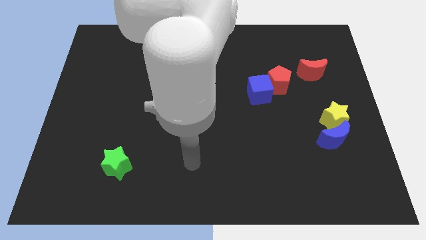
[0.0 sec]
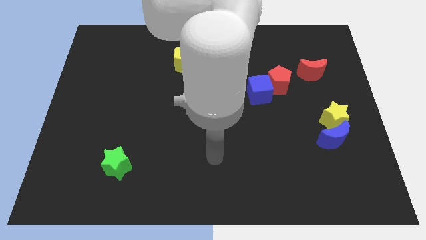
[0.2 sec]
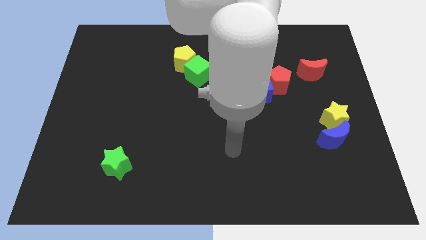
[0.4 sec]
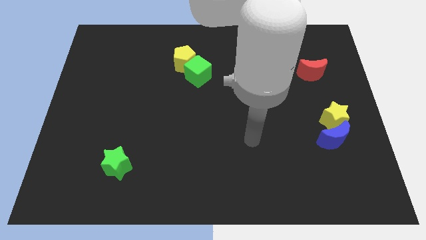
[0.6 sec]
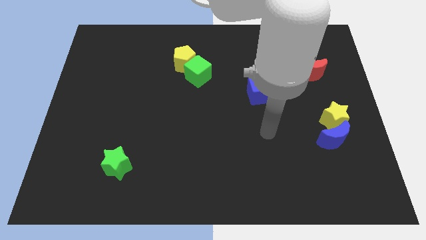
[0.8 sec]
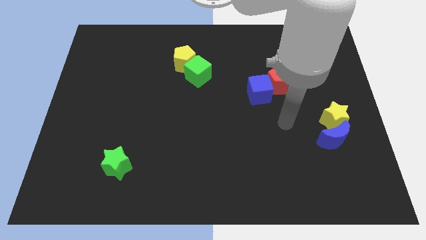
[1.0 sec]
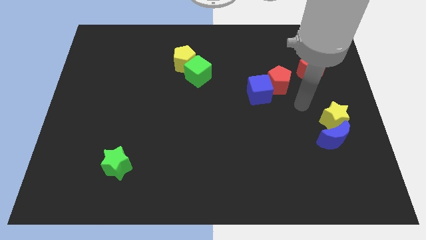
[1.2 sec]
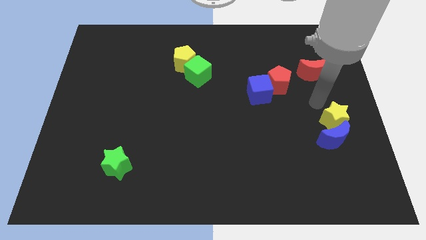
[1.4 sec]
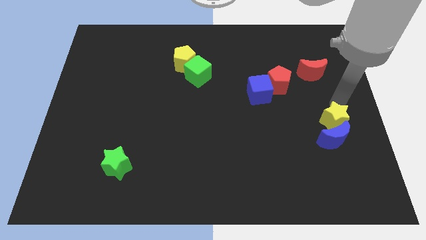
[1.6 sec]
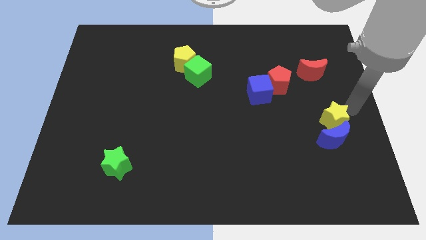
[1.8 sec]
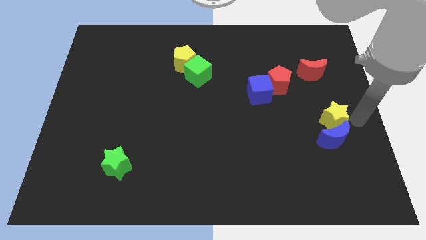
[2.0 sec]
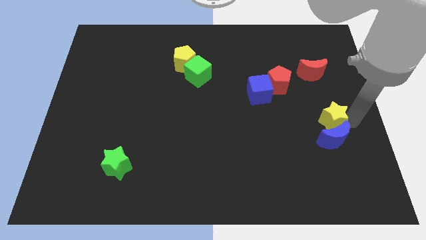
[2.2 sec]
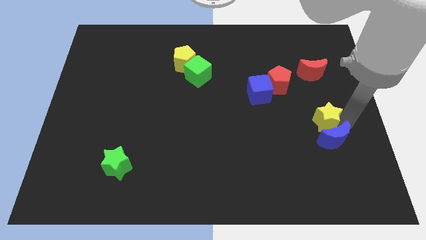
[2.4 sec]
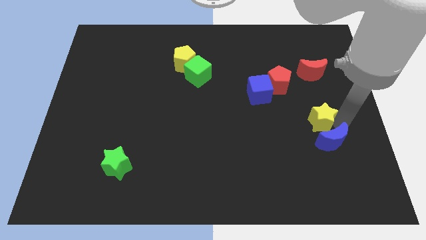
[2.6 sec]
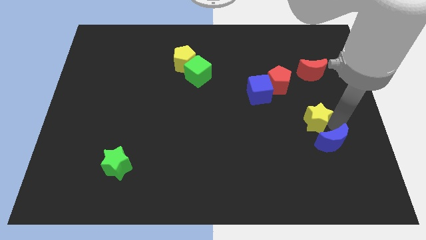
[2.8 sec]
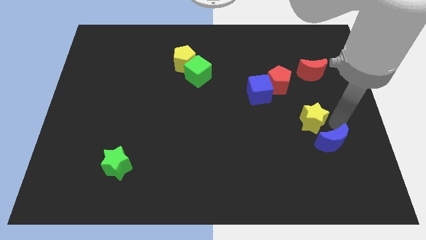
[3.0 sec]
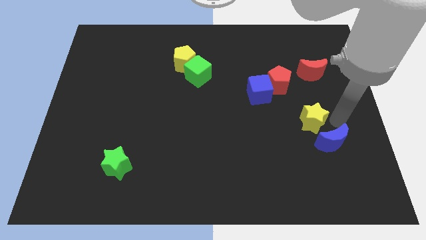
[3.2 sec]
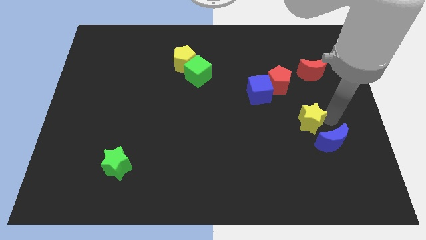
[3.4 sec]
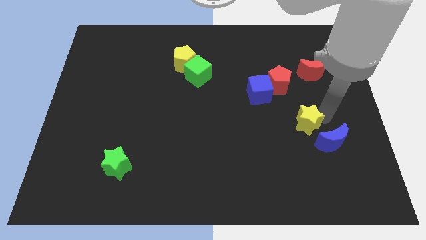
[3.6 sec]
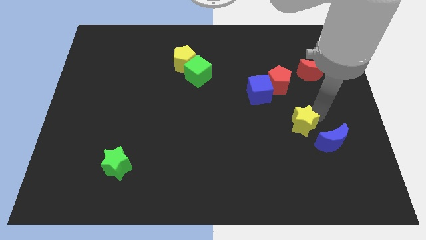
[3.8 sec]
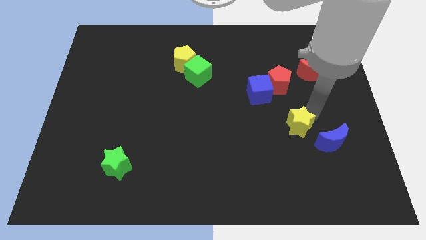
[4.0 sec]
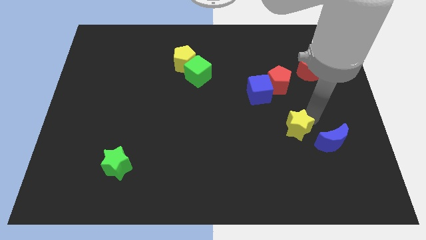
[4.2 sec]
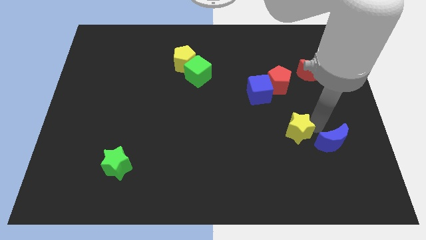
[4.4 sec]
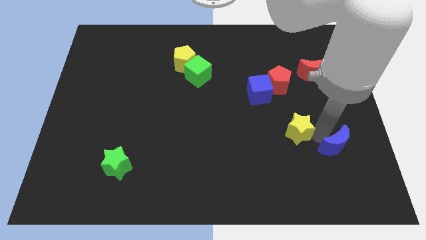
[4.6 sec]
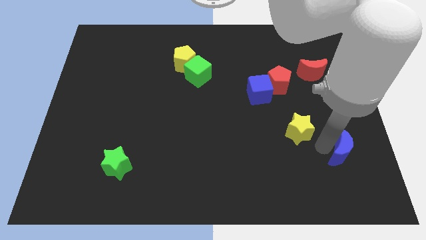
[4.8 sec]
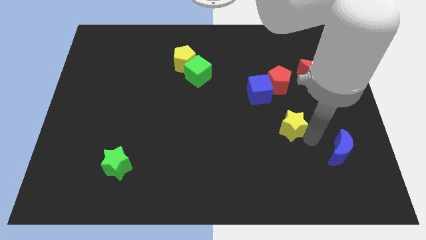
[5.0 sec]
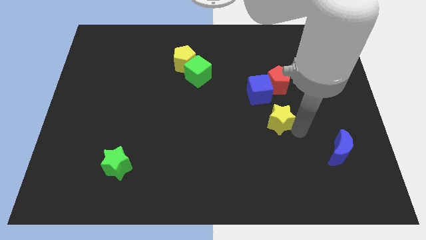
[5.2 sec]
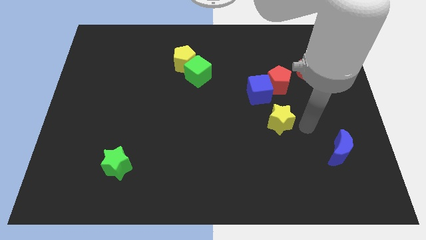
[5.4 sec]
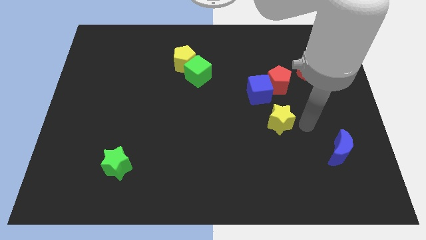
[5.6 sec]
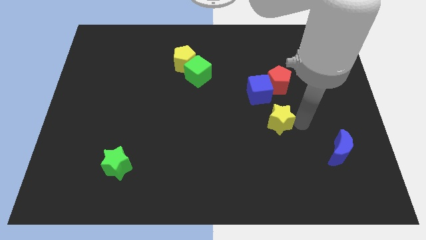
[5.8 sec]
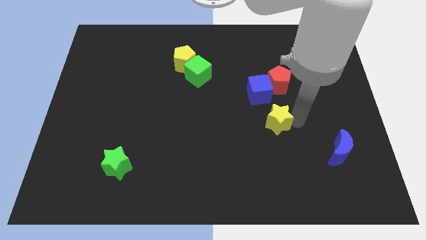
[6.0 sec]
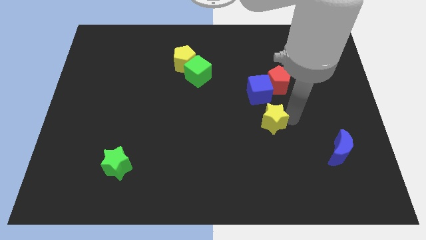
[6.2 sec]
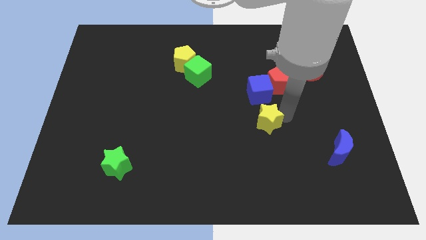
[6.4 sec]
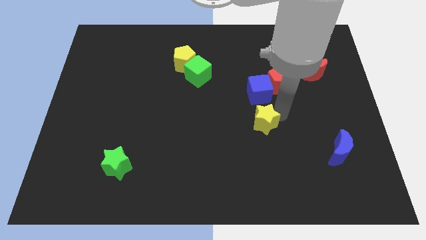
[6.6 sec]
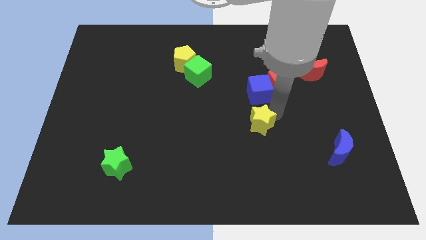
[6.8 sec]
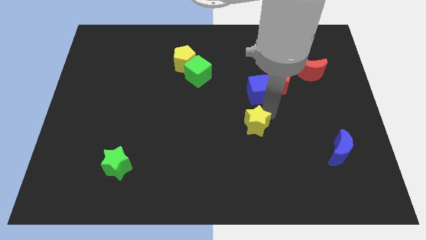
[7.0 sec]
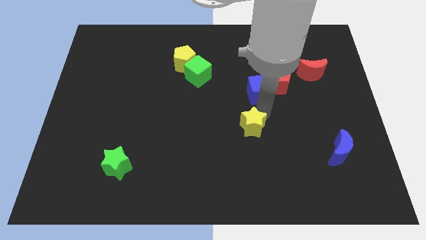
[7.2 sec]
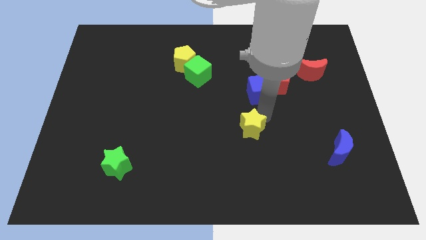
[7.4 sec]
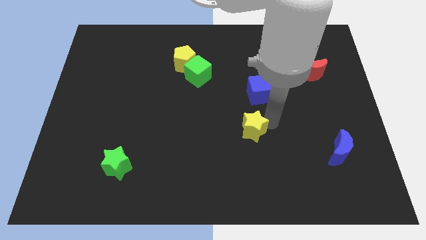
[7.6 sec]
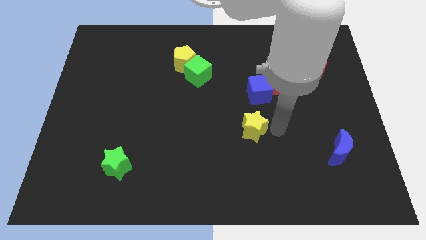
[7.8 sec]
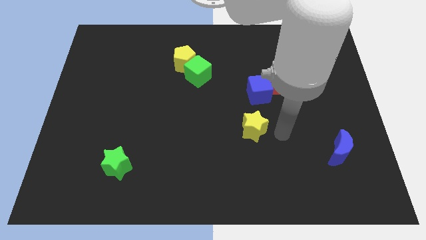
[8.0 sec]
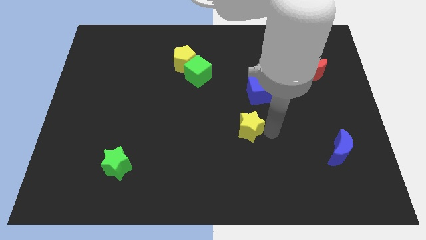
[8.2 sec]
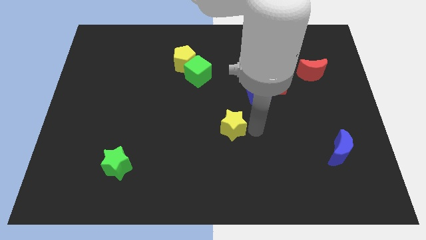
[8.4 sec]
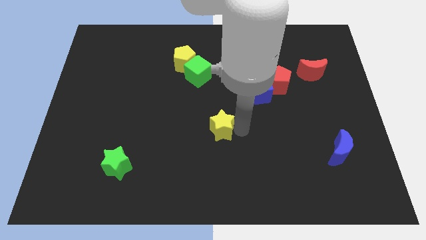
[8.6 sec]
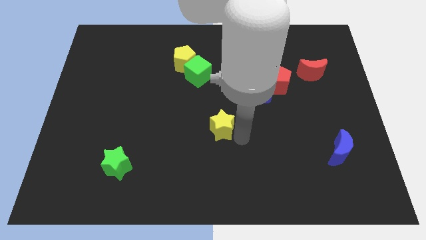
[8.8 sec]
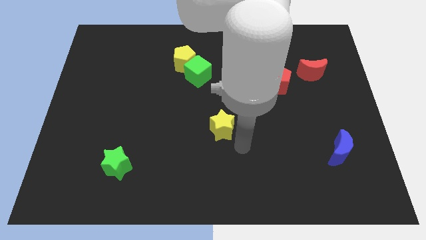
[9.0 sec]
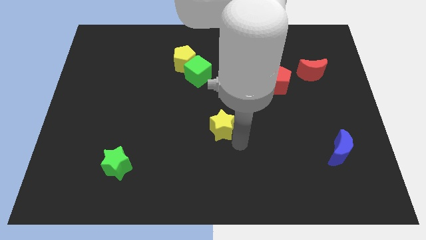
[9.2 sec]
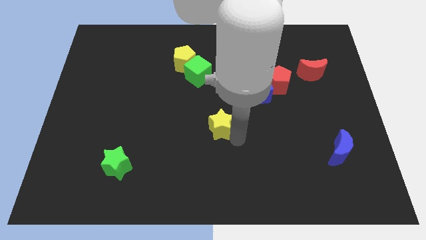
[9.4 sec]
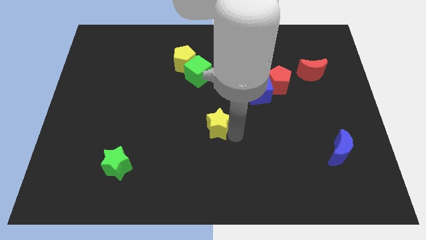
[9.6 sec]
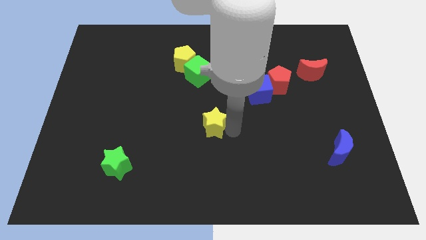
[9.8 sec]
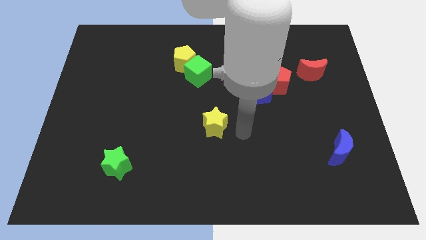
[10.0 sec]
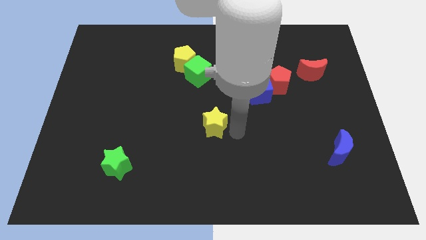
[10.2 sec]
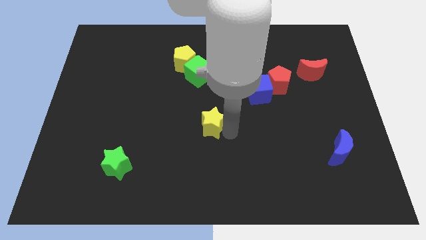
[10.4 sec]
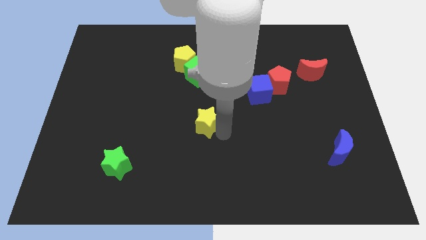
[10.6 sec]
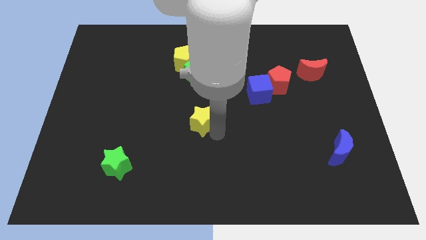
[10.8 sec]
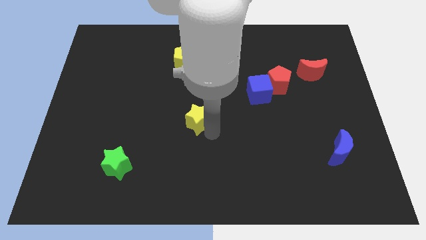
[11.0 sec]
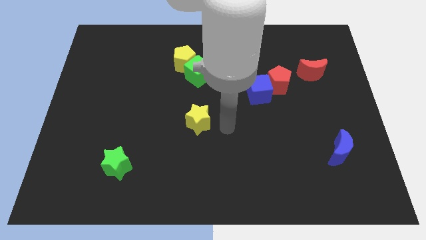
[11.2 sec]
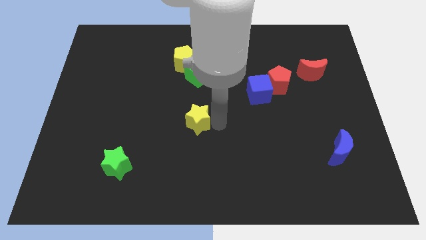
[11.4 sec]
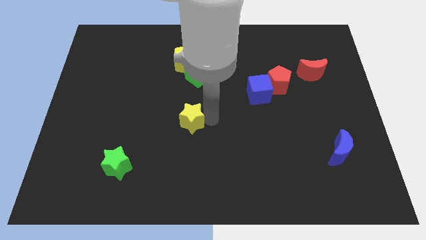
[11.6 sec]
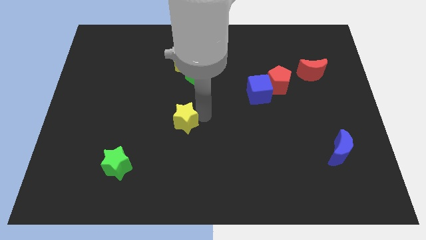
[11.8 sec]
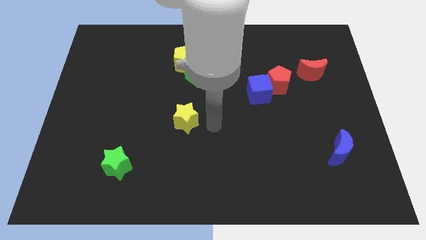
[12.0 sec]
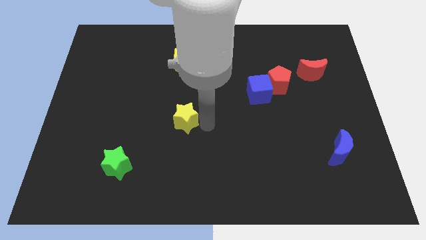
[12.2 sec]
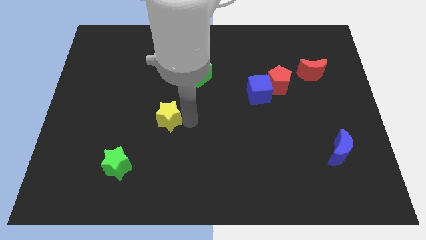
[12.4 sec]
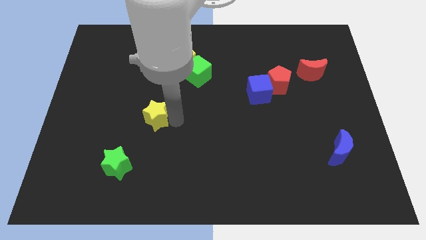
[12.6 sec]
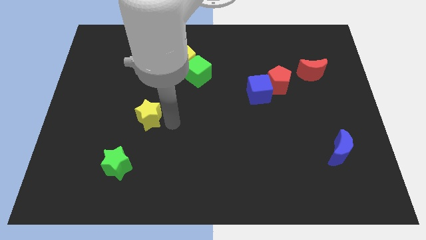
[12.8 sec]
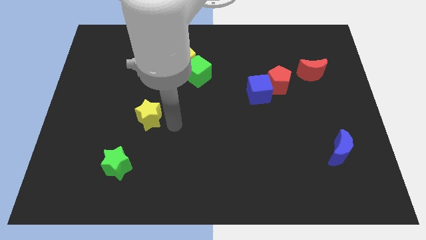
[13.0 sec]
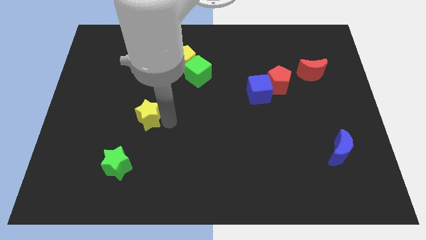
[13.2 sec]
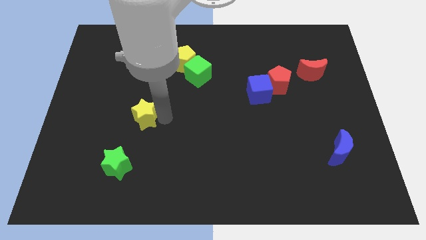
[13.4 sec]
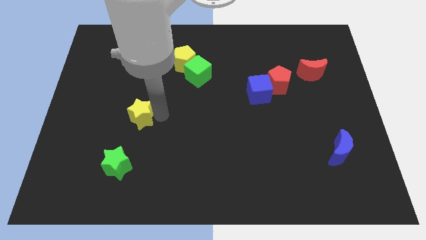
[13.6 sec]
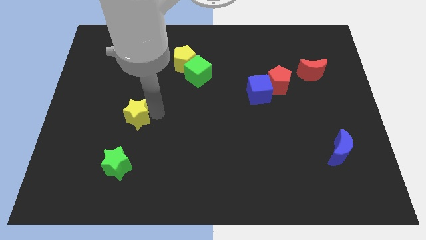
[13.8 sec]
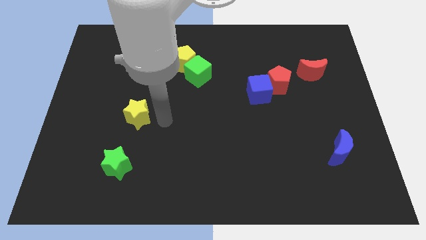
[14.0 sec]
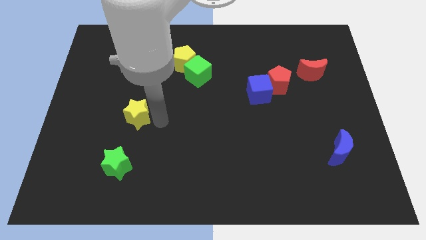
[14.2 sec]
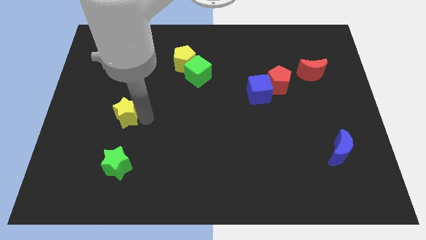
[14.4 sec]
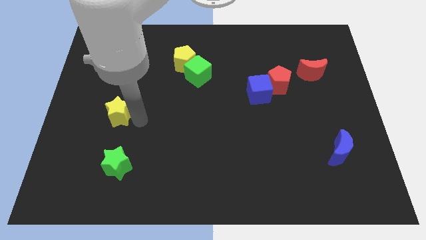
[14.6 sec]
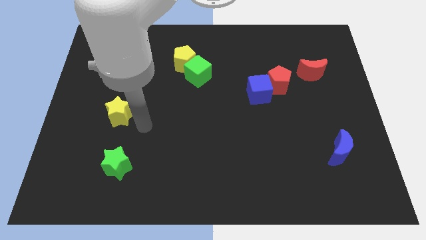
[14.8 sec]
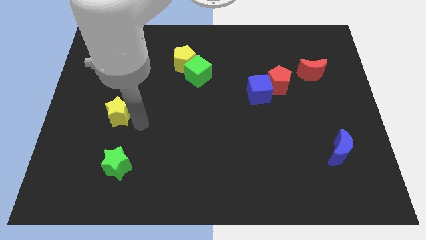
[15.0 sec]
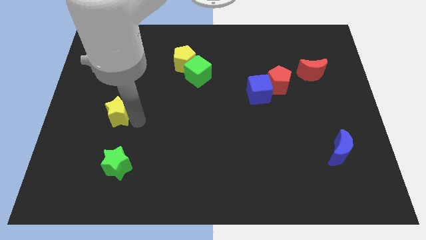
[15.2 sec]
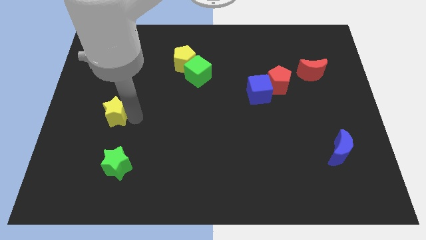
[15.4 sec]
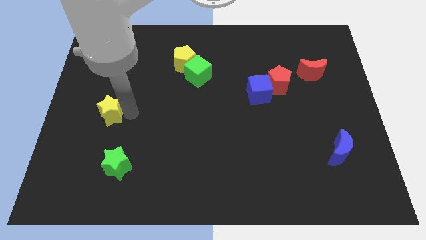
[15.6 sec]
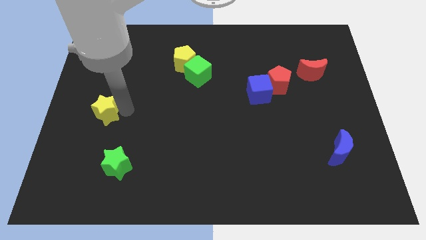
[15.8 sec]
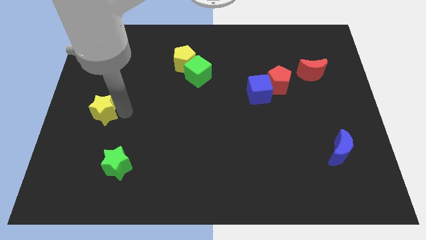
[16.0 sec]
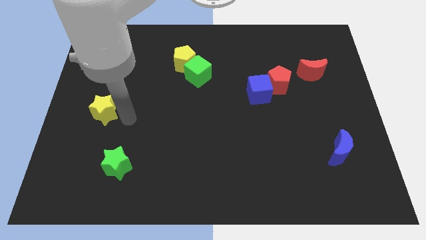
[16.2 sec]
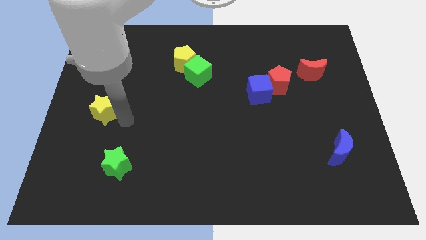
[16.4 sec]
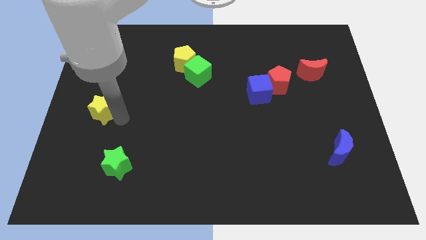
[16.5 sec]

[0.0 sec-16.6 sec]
move the yellow star to the left side of the board
